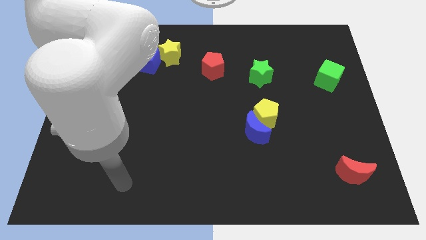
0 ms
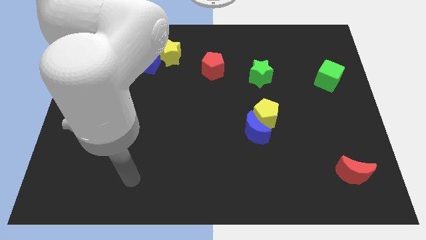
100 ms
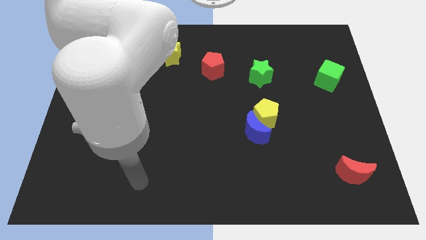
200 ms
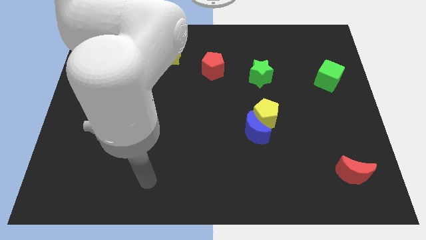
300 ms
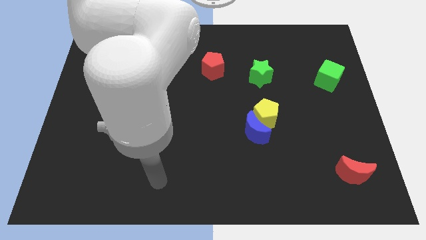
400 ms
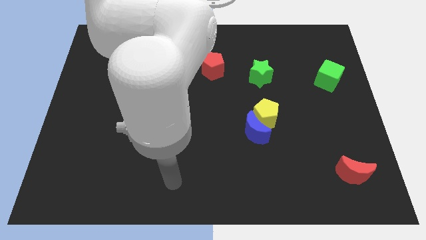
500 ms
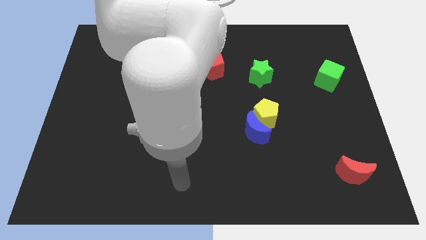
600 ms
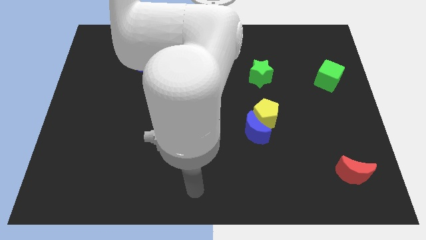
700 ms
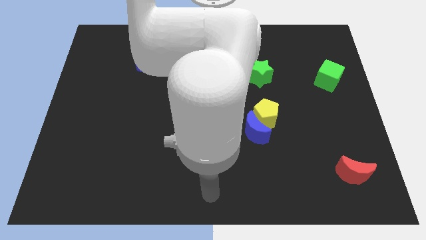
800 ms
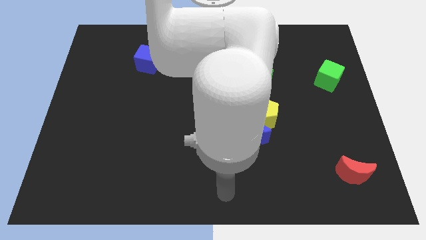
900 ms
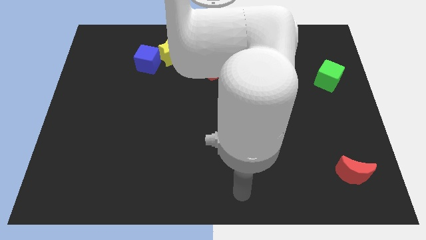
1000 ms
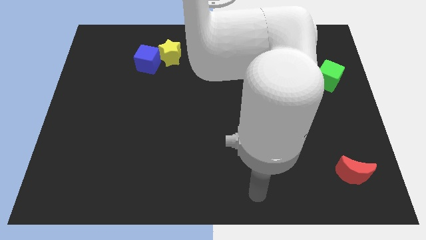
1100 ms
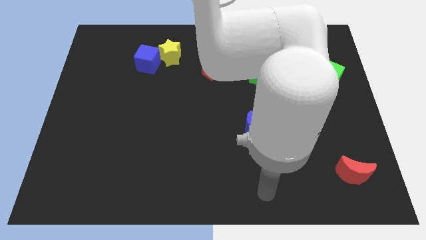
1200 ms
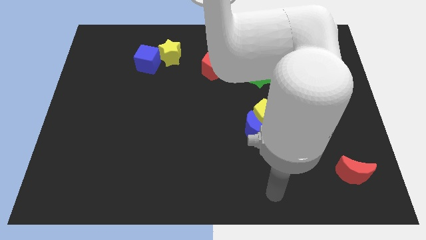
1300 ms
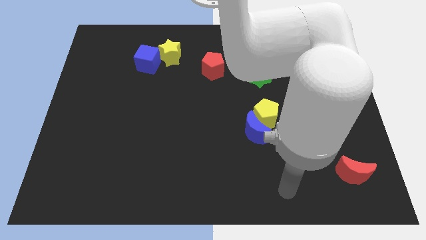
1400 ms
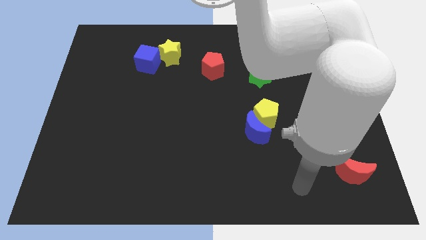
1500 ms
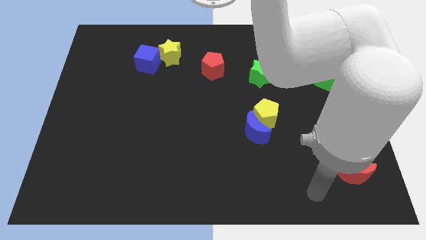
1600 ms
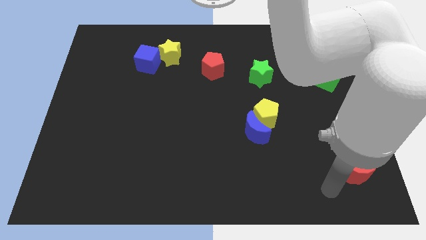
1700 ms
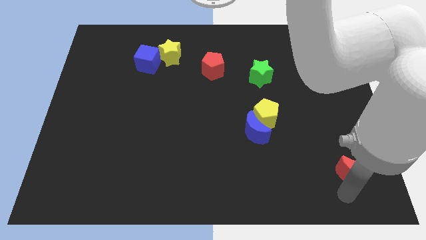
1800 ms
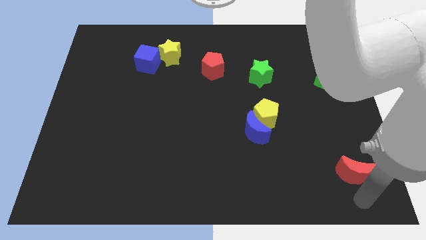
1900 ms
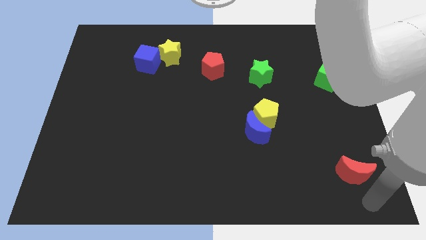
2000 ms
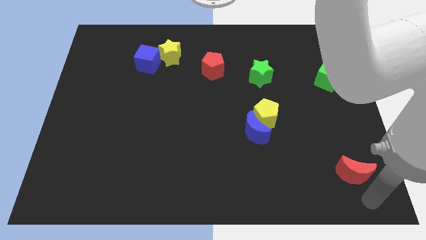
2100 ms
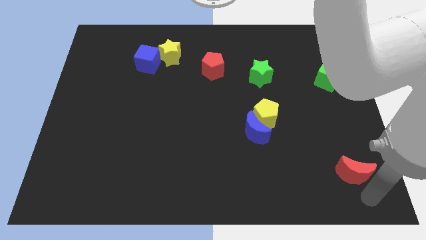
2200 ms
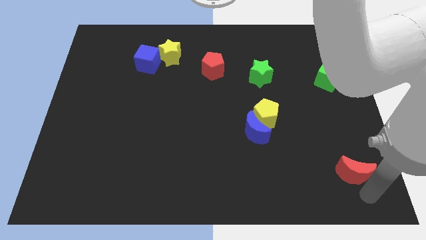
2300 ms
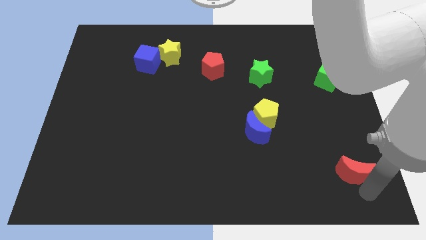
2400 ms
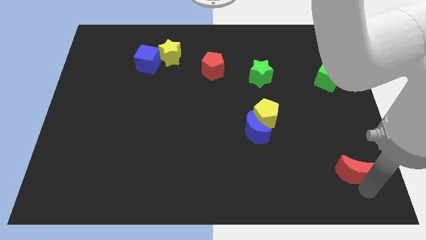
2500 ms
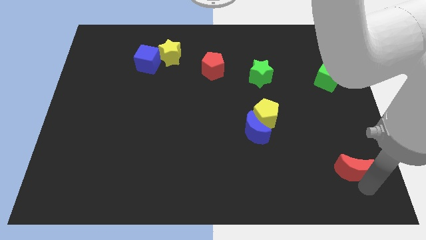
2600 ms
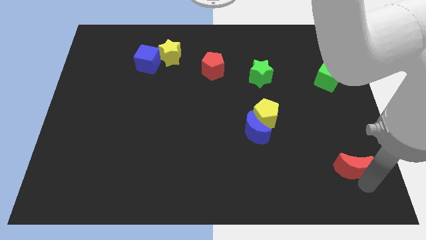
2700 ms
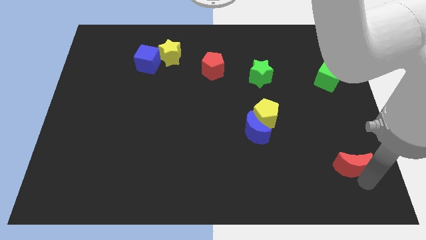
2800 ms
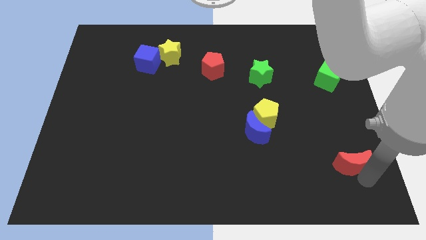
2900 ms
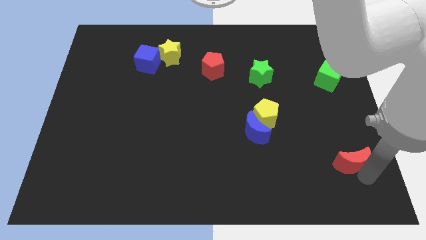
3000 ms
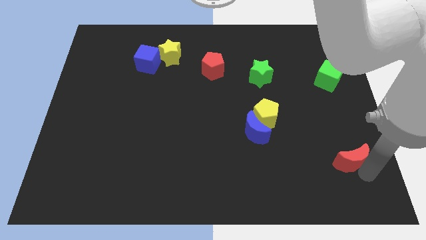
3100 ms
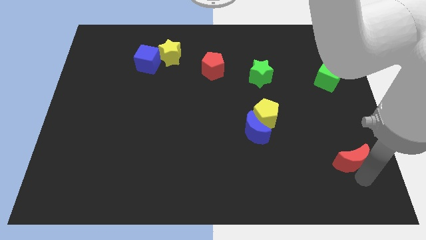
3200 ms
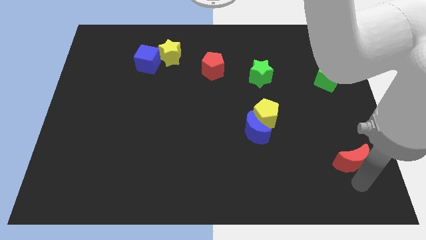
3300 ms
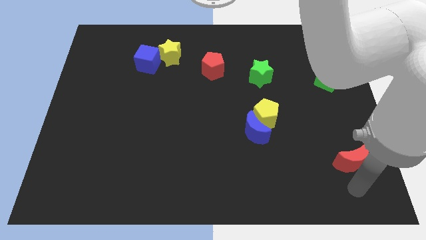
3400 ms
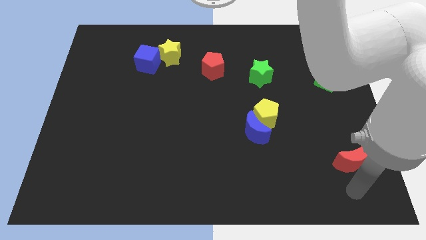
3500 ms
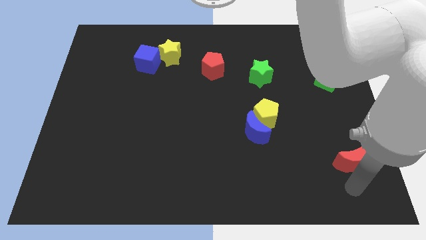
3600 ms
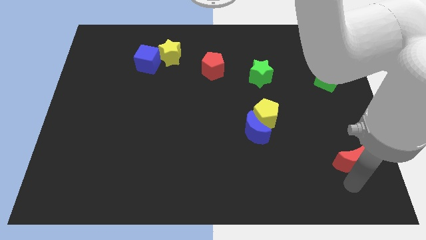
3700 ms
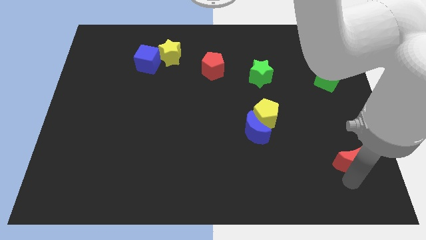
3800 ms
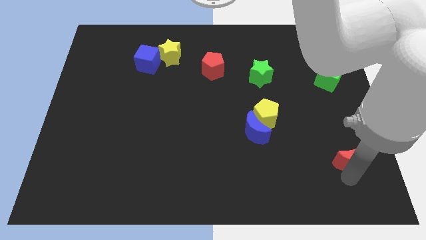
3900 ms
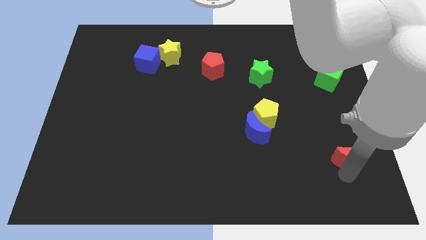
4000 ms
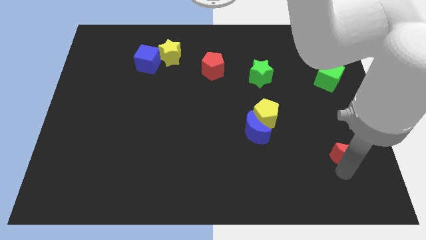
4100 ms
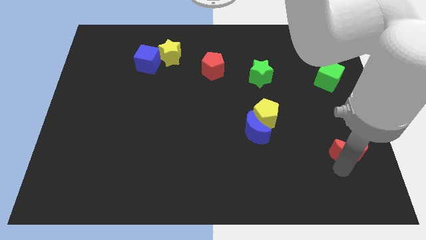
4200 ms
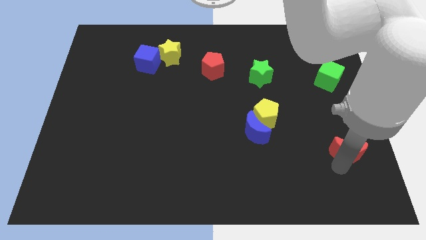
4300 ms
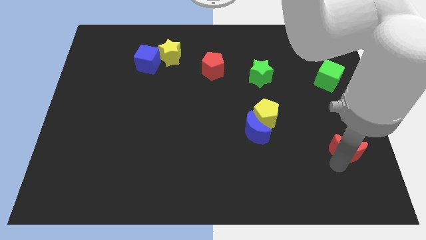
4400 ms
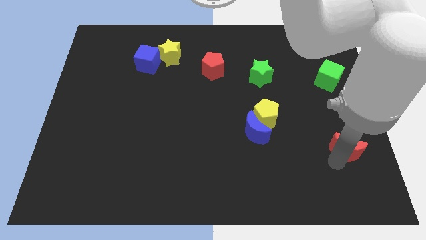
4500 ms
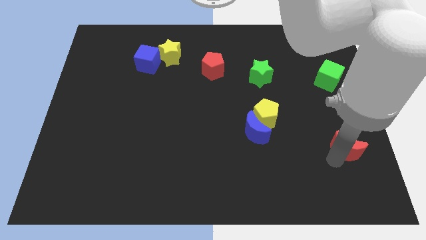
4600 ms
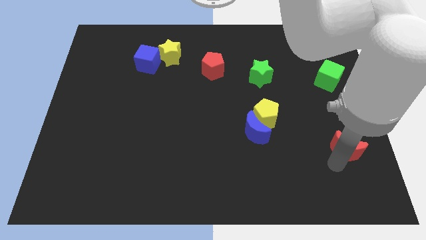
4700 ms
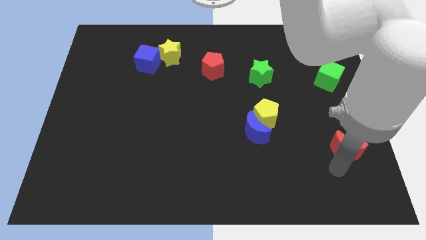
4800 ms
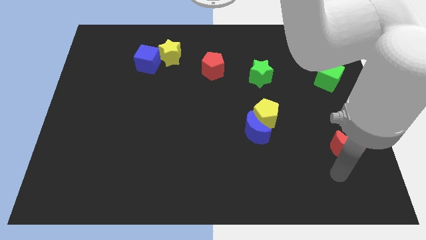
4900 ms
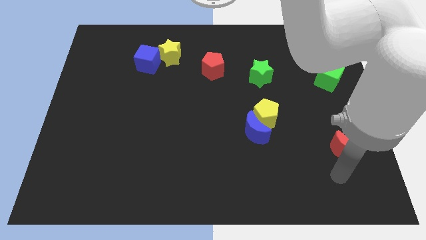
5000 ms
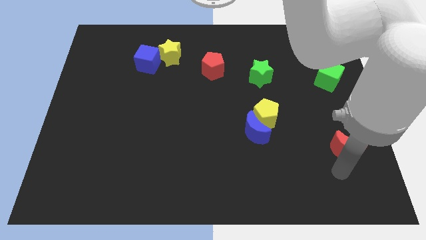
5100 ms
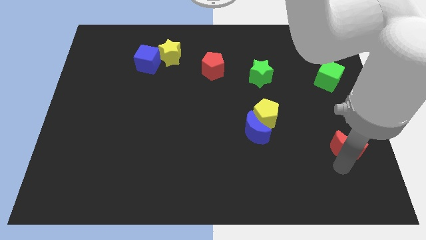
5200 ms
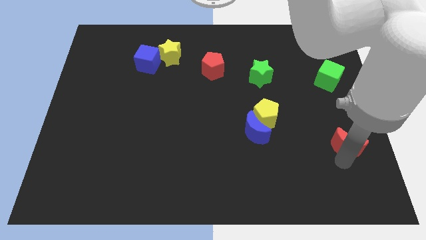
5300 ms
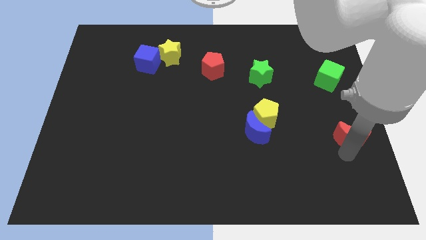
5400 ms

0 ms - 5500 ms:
push the red moon upwards a little bit

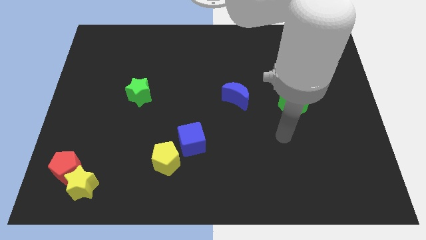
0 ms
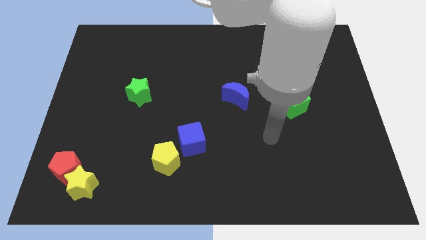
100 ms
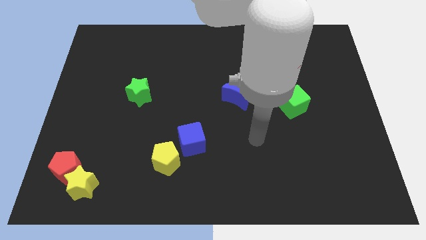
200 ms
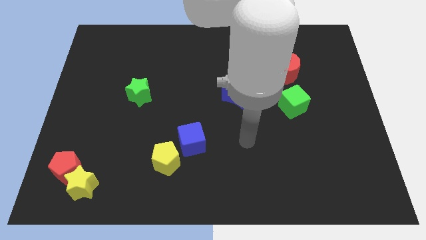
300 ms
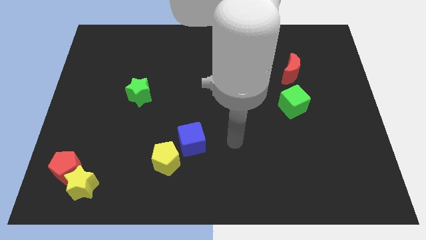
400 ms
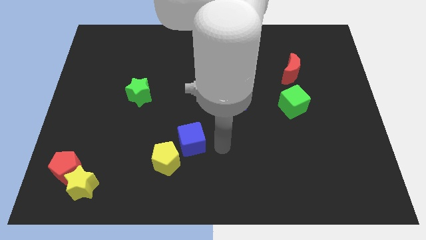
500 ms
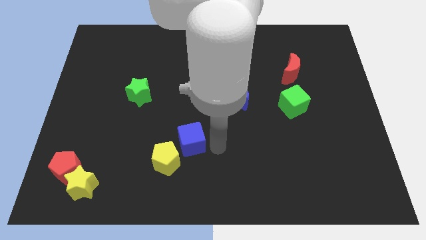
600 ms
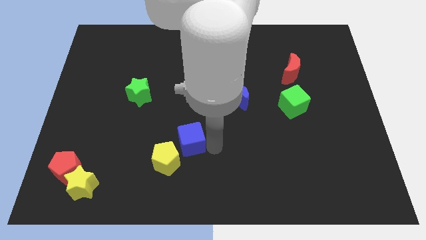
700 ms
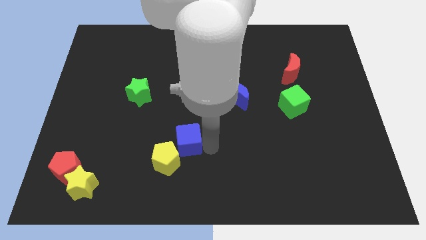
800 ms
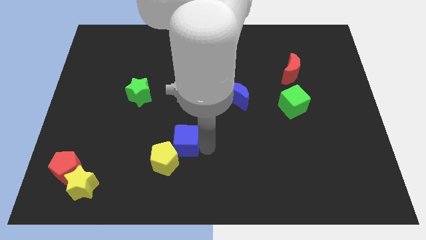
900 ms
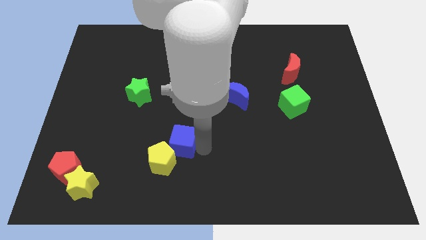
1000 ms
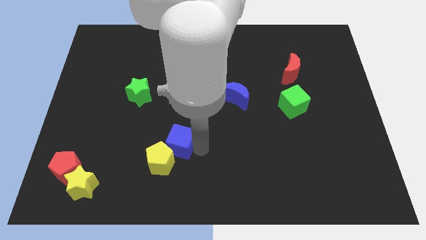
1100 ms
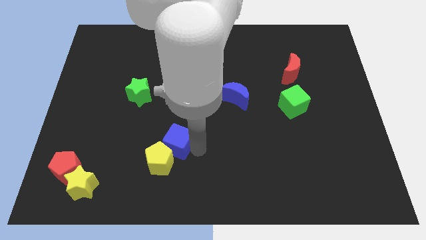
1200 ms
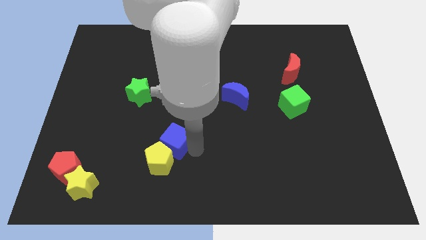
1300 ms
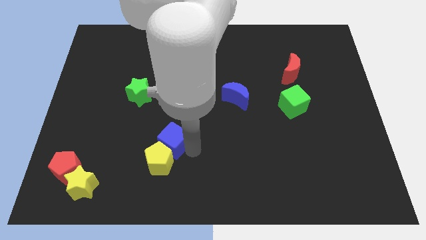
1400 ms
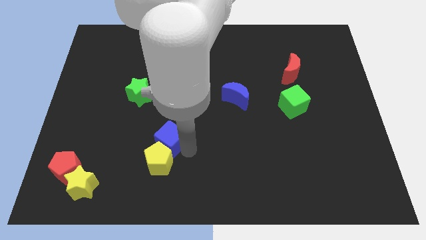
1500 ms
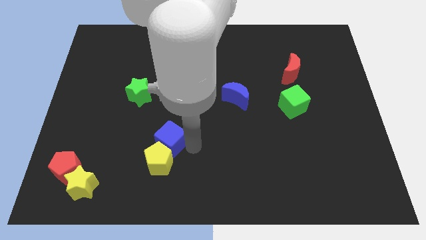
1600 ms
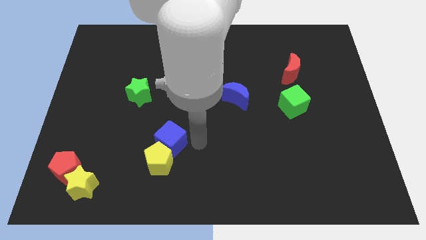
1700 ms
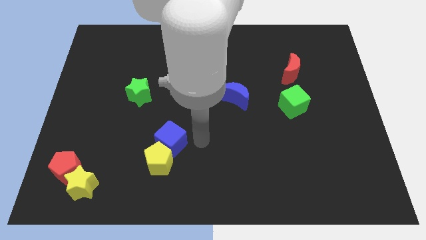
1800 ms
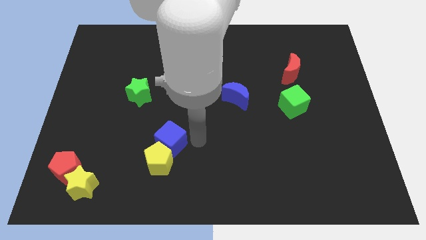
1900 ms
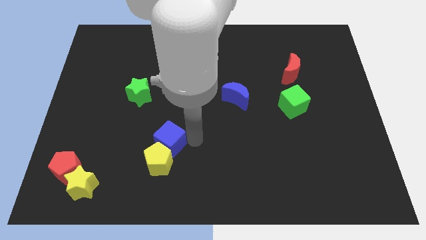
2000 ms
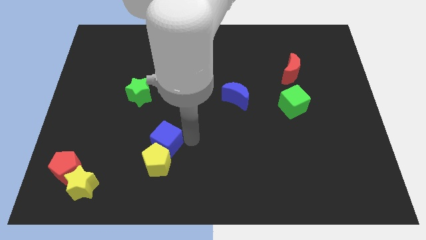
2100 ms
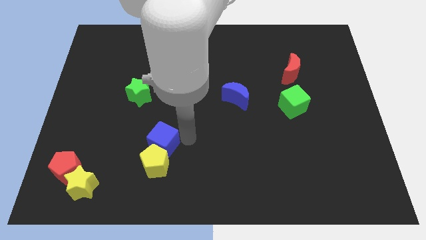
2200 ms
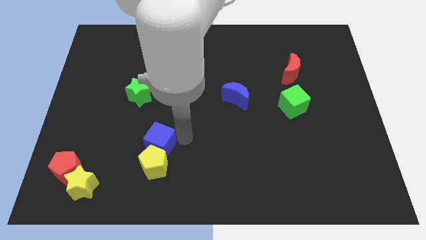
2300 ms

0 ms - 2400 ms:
move the blue cube somewhat left

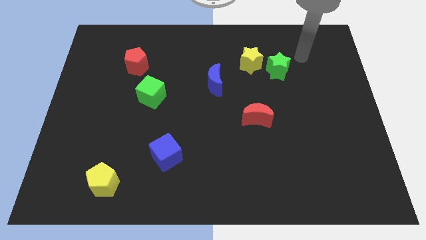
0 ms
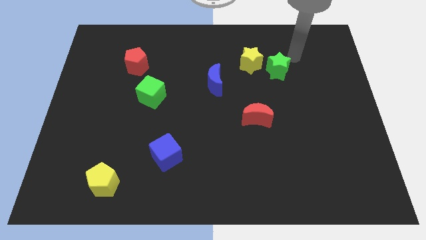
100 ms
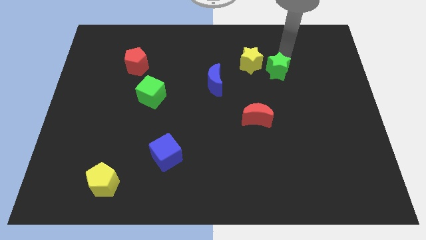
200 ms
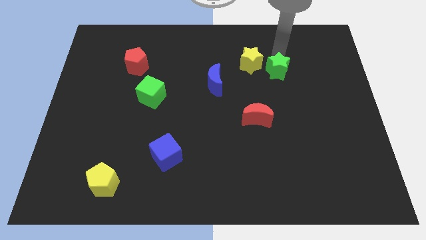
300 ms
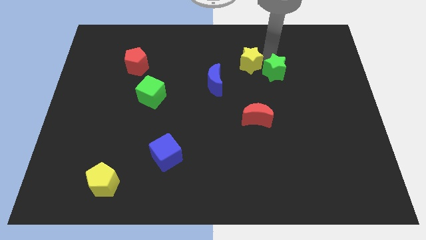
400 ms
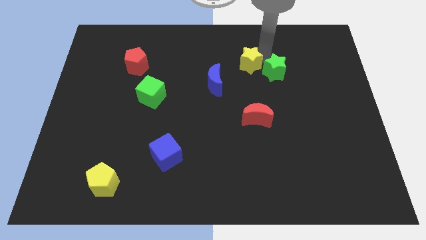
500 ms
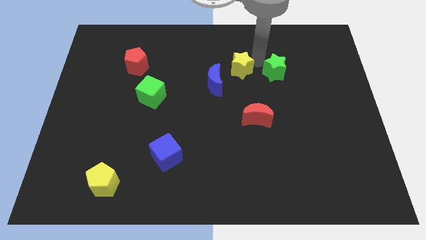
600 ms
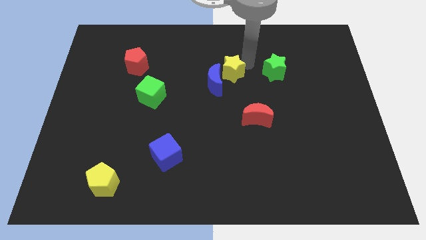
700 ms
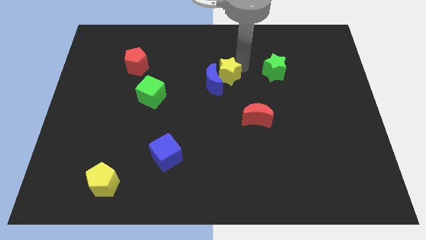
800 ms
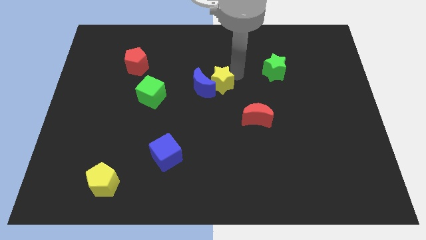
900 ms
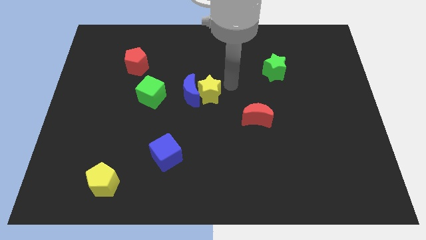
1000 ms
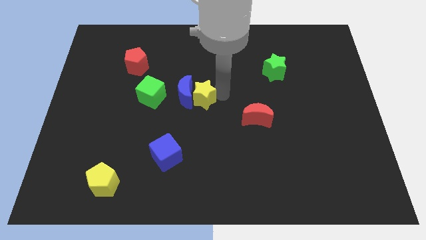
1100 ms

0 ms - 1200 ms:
slide the blue moon left somewhat
